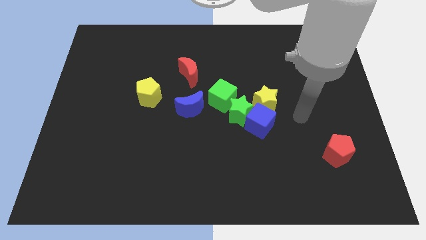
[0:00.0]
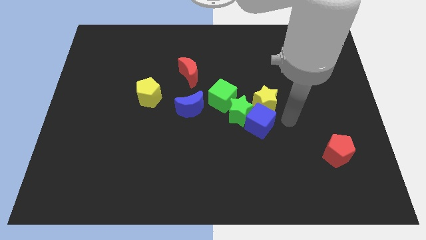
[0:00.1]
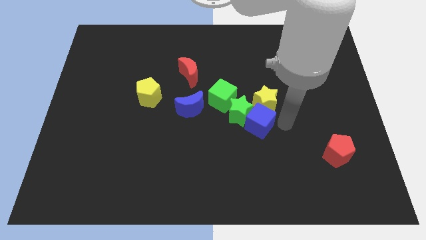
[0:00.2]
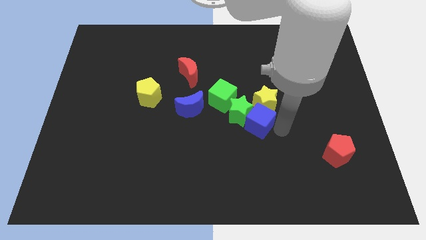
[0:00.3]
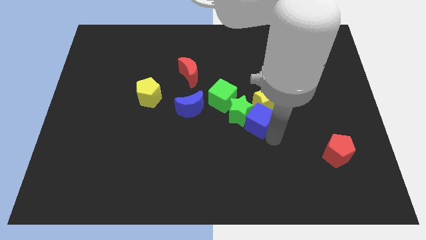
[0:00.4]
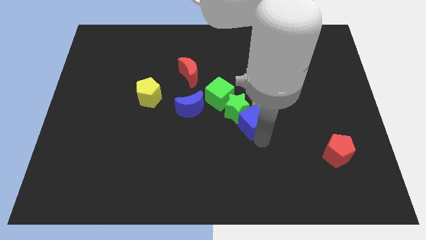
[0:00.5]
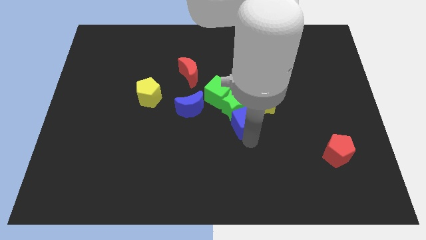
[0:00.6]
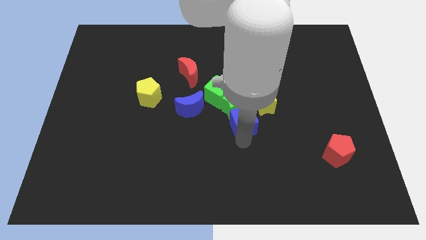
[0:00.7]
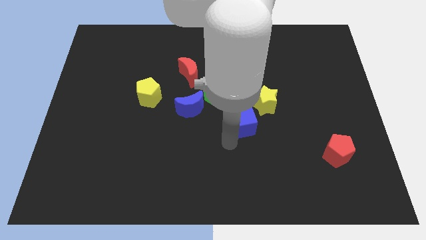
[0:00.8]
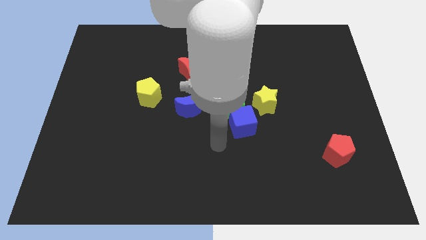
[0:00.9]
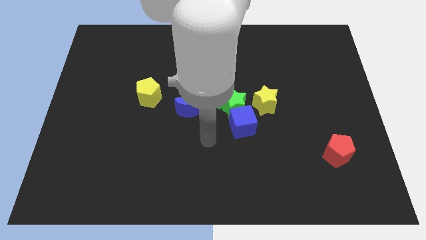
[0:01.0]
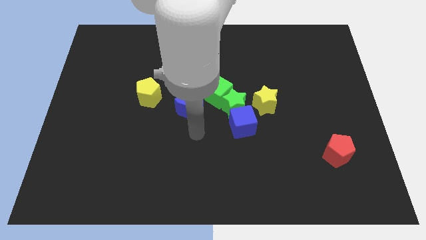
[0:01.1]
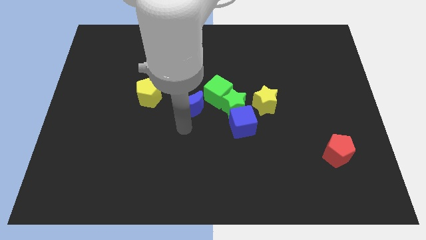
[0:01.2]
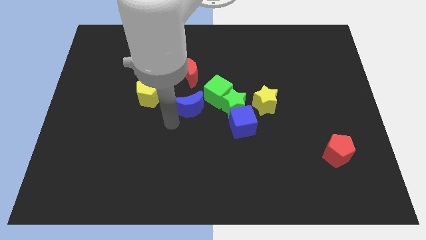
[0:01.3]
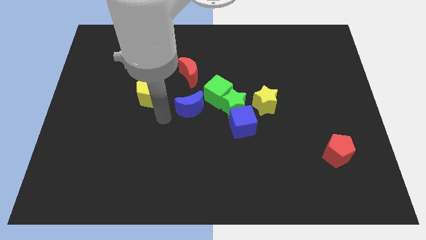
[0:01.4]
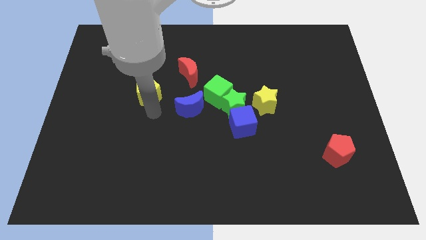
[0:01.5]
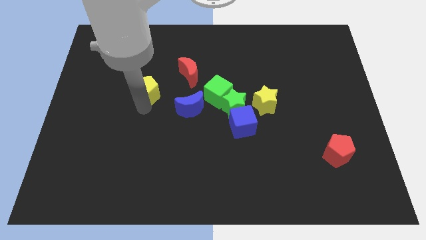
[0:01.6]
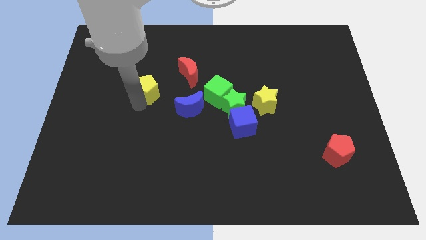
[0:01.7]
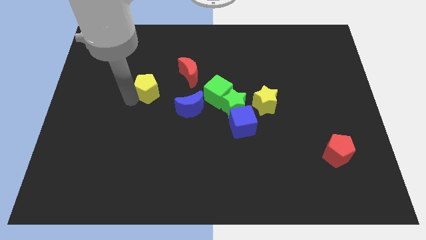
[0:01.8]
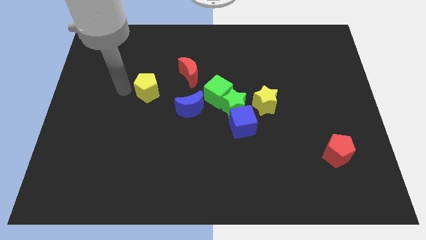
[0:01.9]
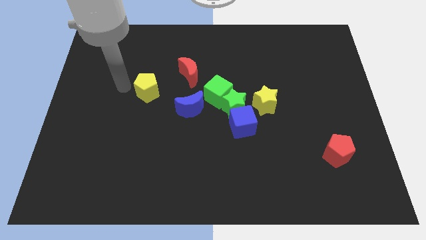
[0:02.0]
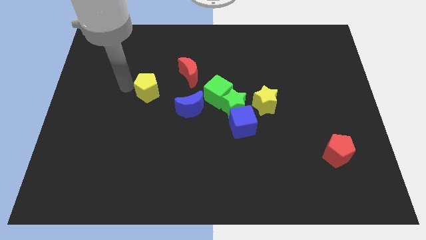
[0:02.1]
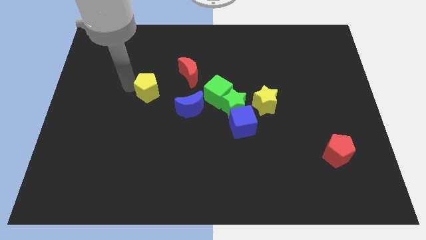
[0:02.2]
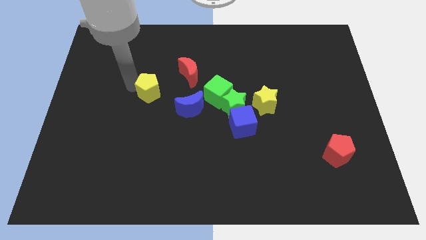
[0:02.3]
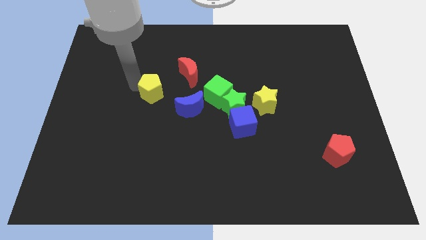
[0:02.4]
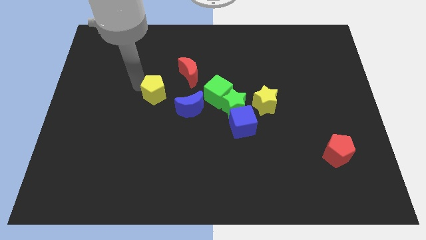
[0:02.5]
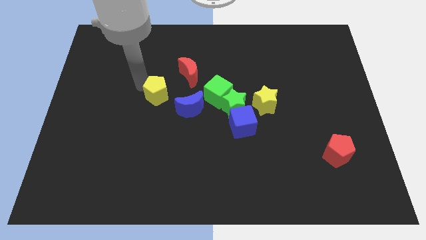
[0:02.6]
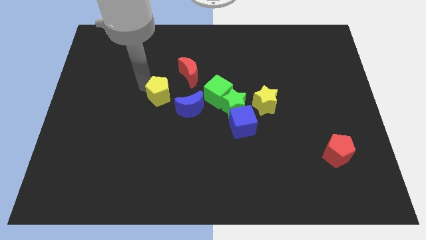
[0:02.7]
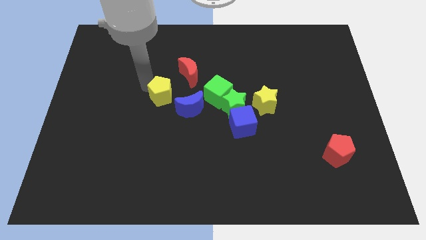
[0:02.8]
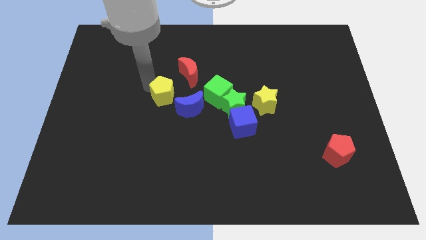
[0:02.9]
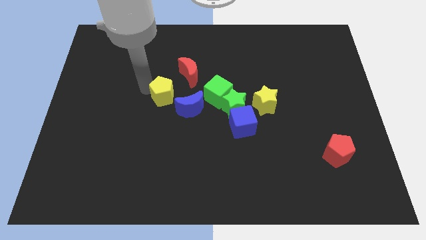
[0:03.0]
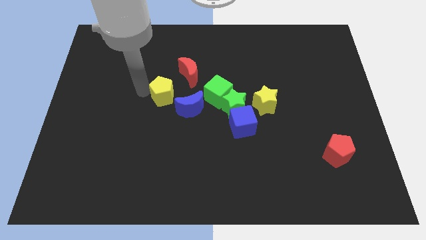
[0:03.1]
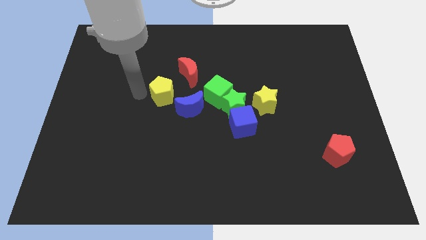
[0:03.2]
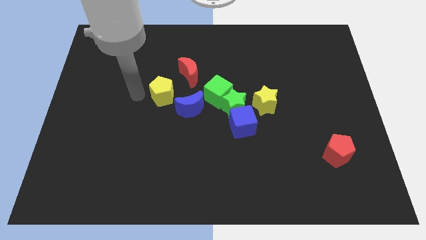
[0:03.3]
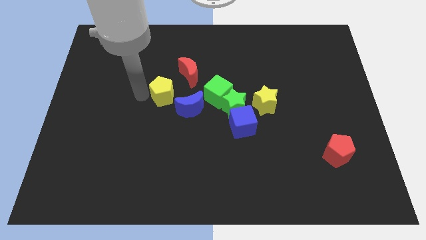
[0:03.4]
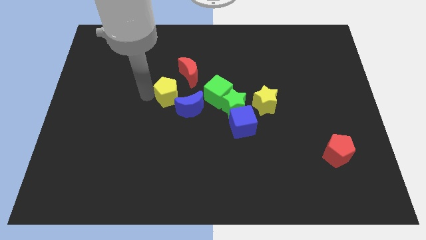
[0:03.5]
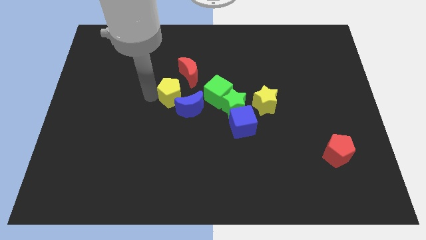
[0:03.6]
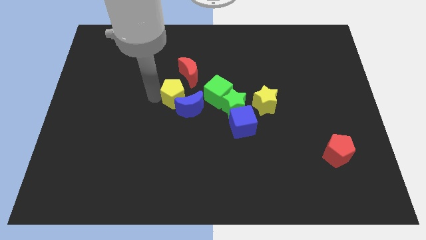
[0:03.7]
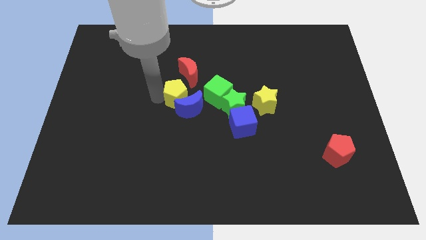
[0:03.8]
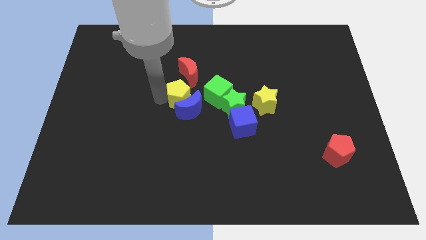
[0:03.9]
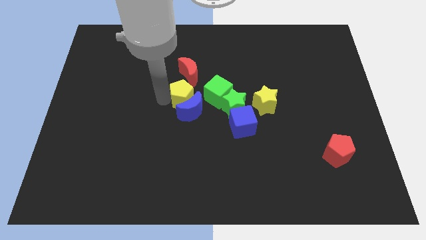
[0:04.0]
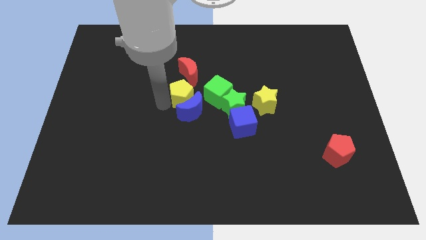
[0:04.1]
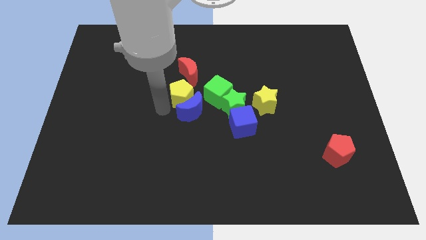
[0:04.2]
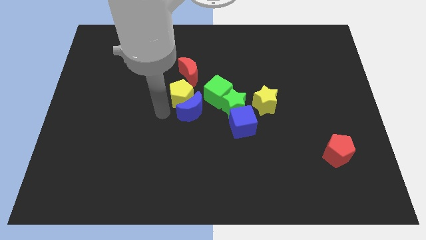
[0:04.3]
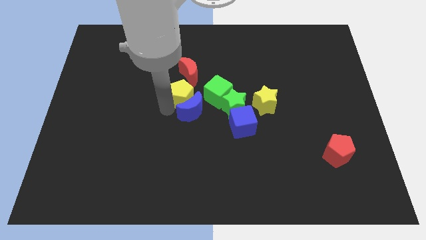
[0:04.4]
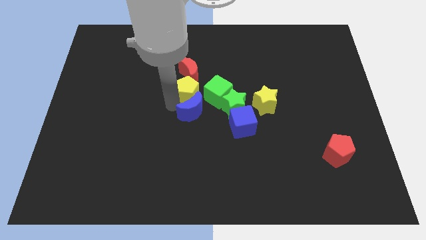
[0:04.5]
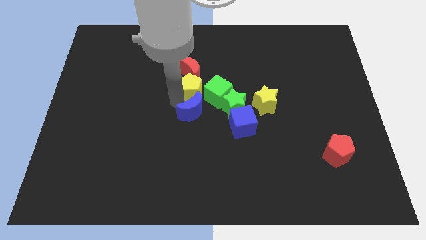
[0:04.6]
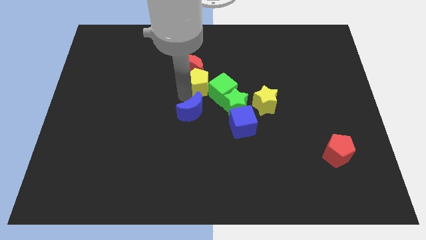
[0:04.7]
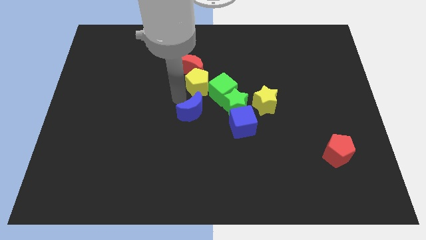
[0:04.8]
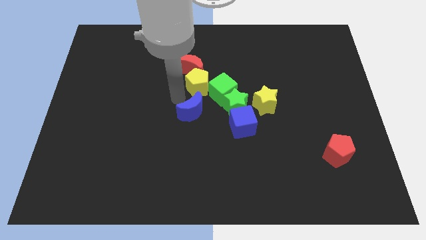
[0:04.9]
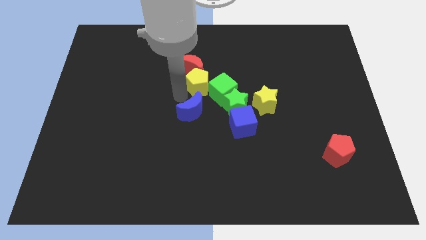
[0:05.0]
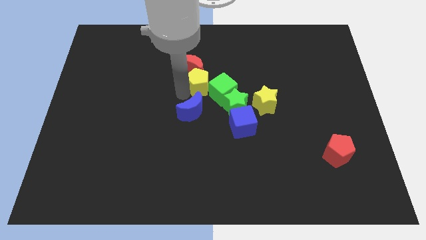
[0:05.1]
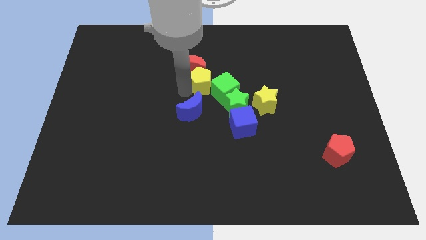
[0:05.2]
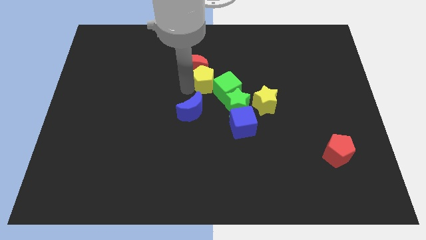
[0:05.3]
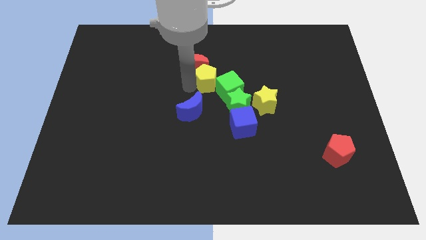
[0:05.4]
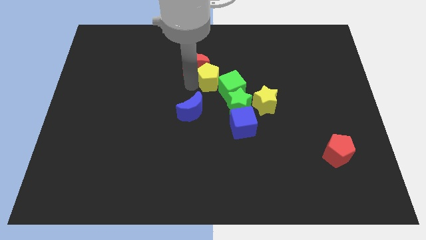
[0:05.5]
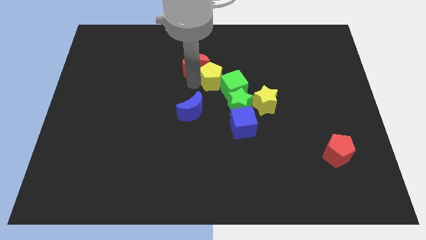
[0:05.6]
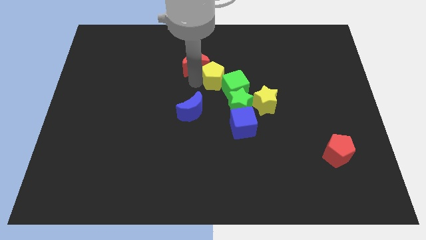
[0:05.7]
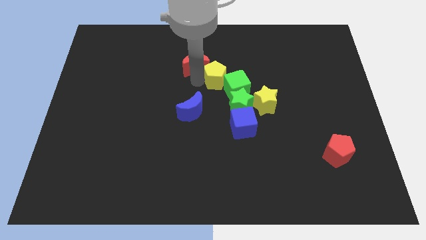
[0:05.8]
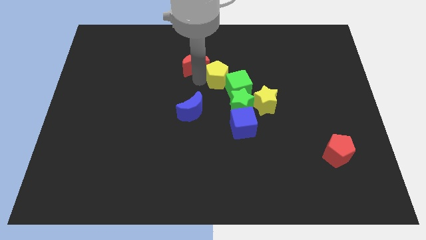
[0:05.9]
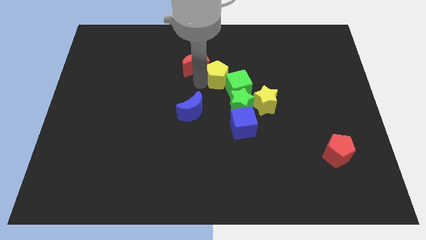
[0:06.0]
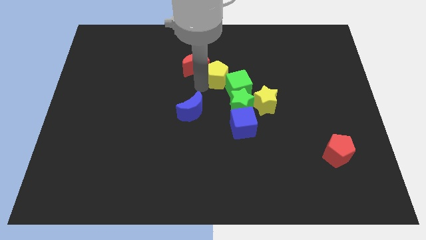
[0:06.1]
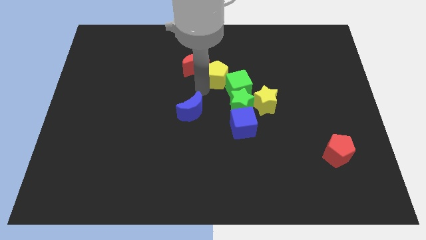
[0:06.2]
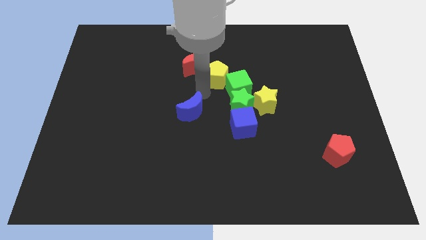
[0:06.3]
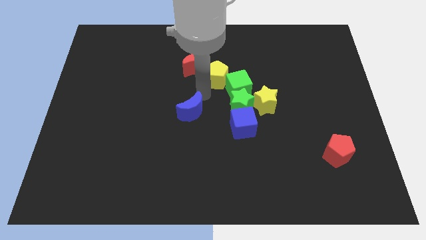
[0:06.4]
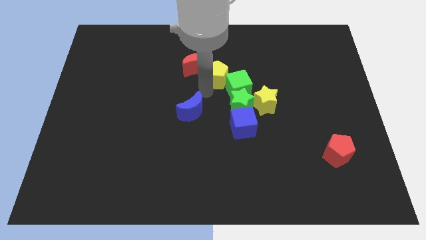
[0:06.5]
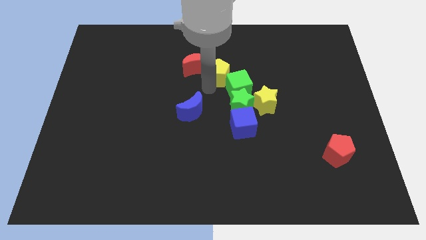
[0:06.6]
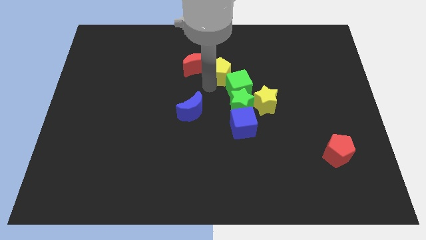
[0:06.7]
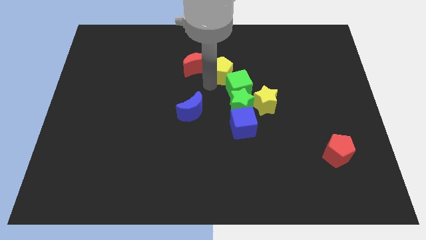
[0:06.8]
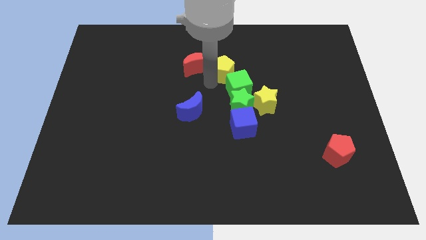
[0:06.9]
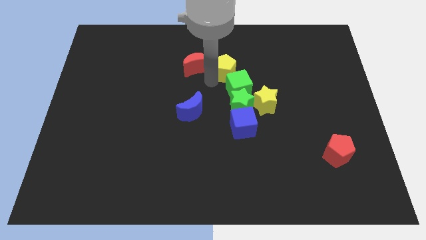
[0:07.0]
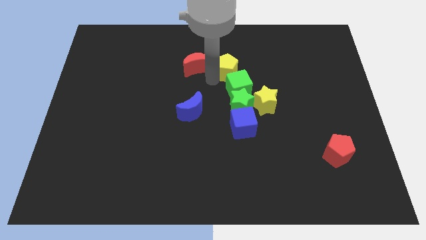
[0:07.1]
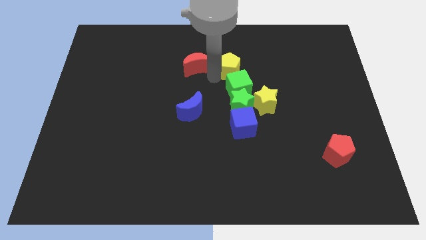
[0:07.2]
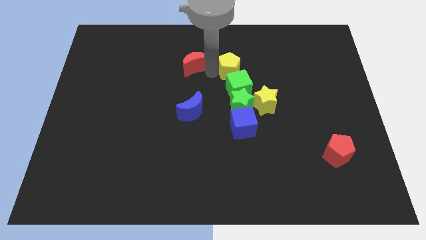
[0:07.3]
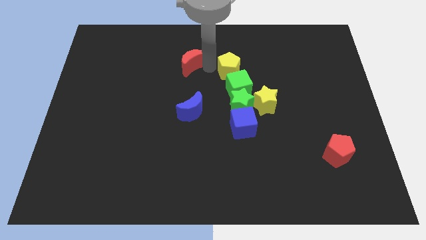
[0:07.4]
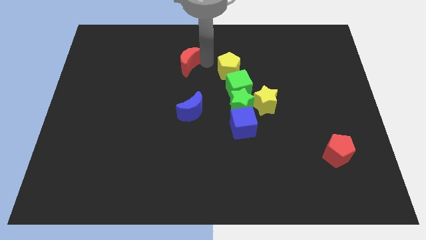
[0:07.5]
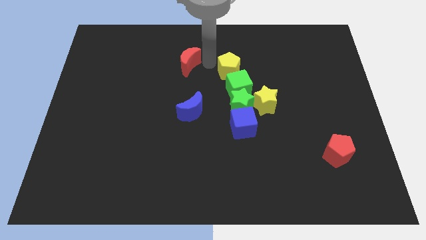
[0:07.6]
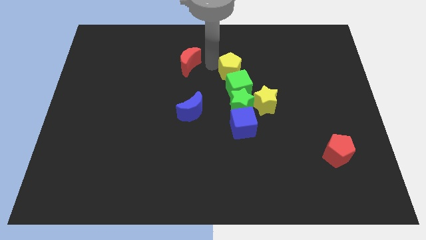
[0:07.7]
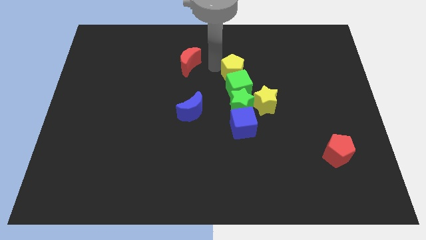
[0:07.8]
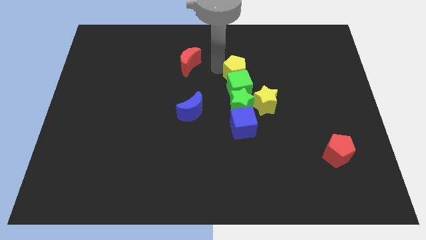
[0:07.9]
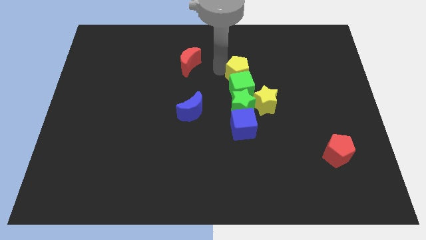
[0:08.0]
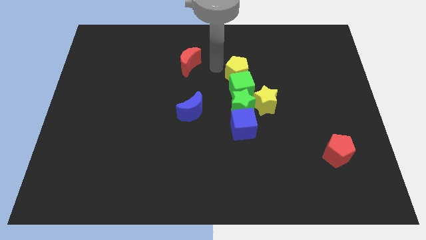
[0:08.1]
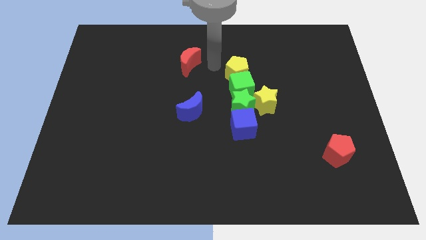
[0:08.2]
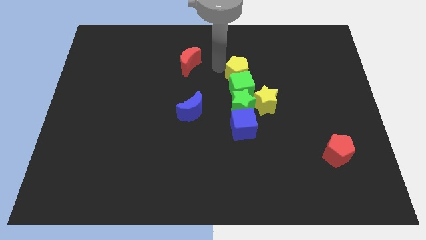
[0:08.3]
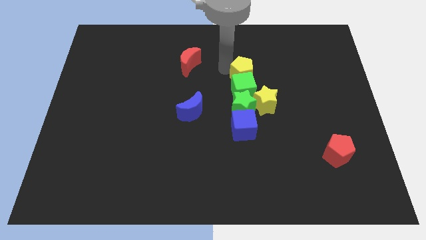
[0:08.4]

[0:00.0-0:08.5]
move the yellow pentagon to the right
